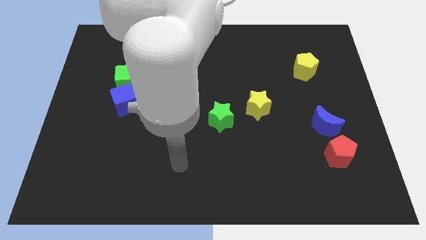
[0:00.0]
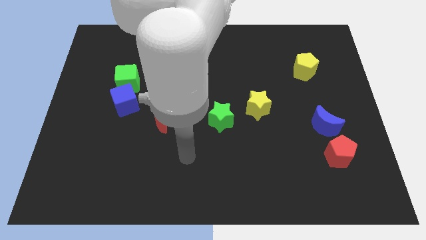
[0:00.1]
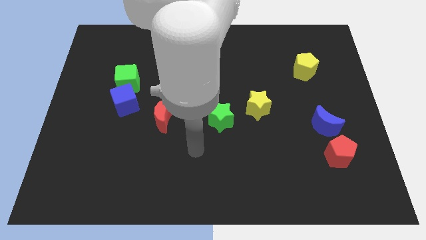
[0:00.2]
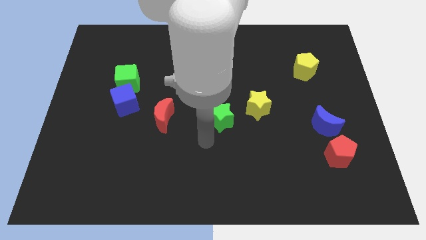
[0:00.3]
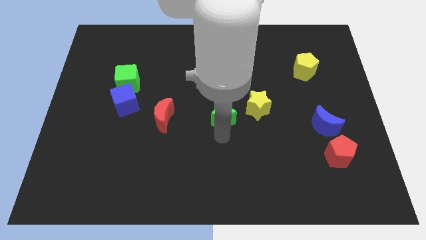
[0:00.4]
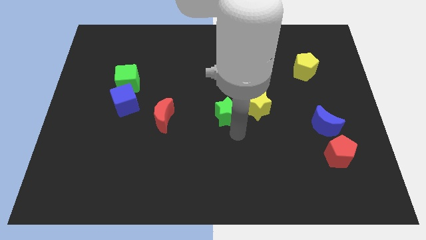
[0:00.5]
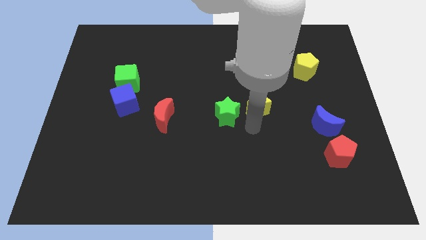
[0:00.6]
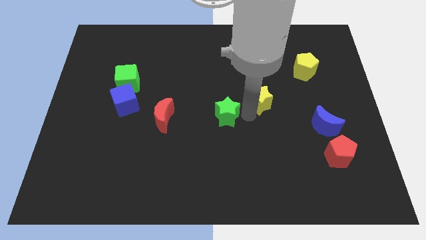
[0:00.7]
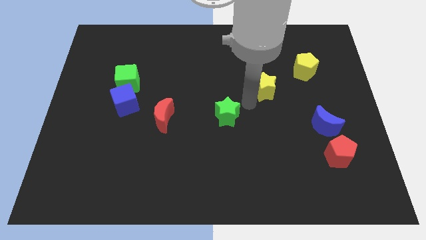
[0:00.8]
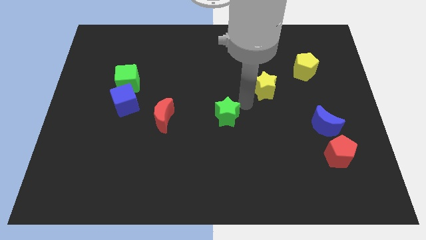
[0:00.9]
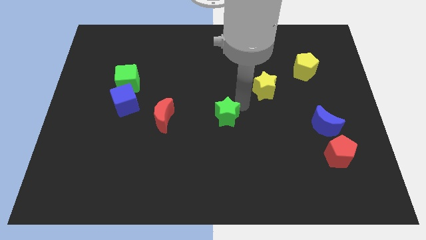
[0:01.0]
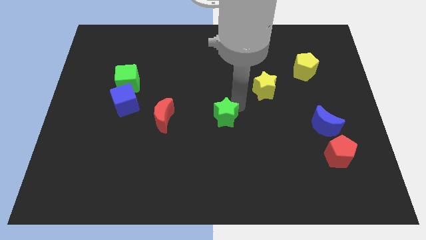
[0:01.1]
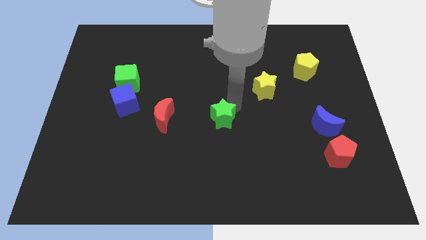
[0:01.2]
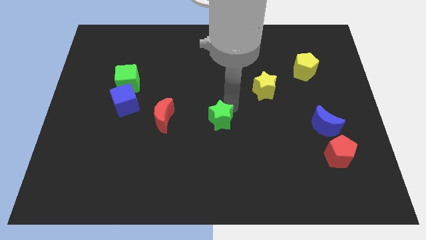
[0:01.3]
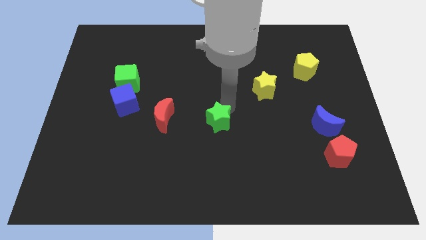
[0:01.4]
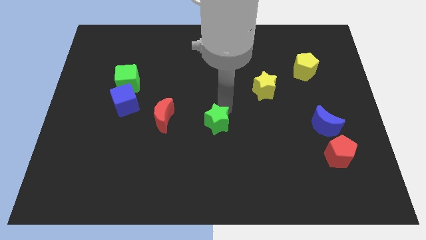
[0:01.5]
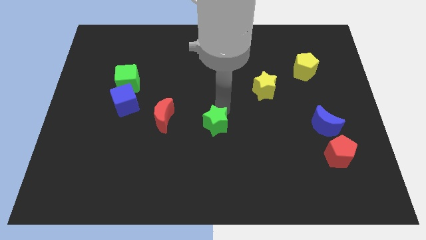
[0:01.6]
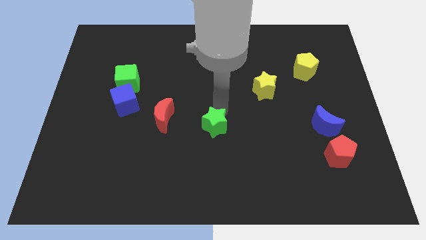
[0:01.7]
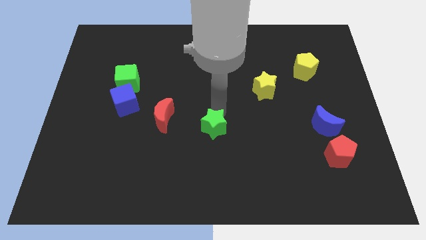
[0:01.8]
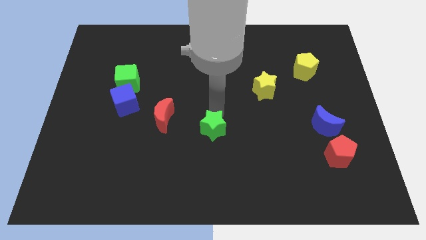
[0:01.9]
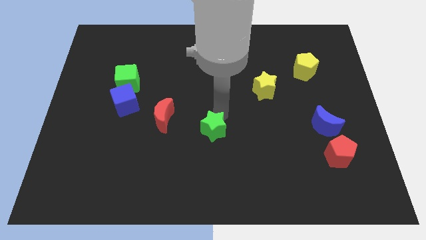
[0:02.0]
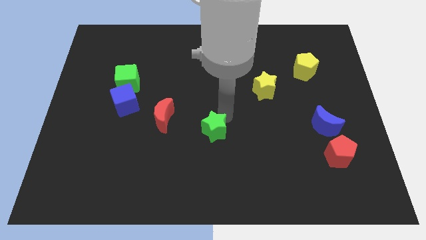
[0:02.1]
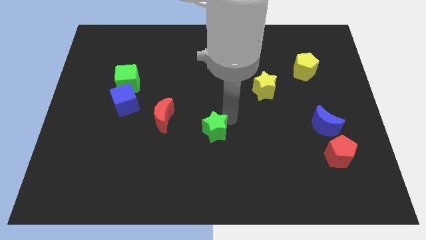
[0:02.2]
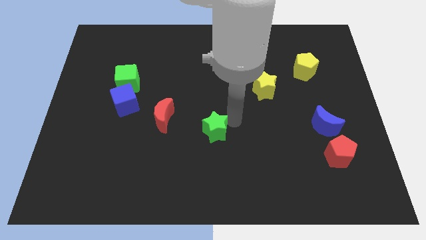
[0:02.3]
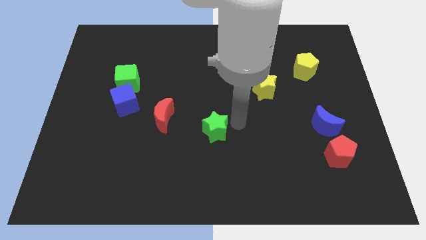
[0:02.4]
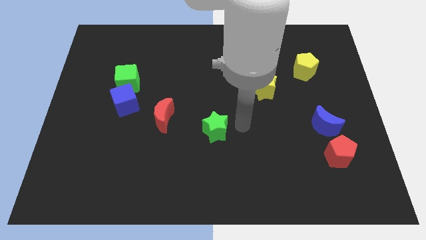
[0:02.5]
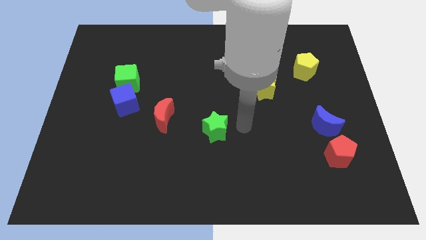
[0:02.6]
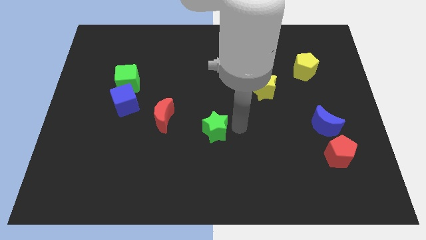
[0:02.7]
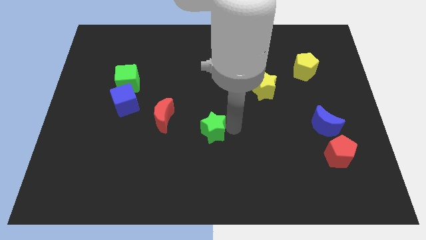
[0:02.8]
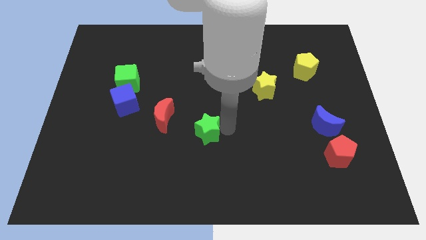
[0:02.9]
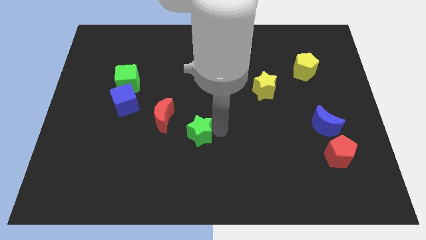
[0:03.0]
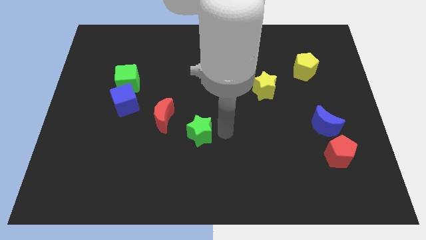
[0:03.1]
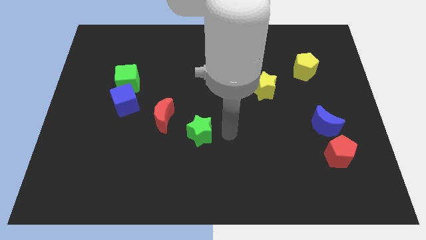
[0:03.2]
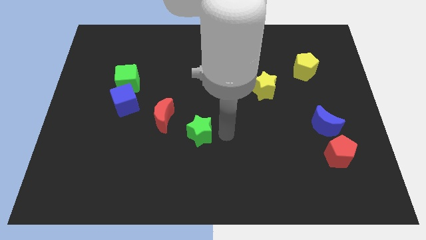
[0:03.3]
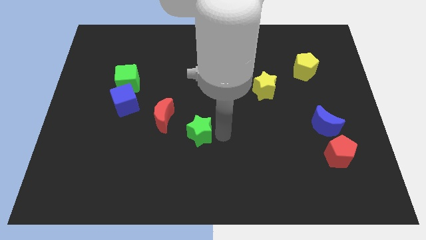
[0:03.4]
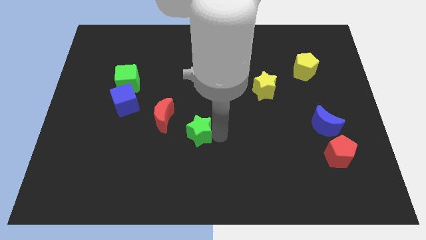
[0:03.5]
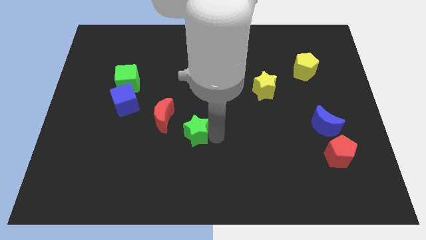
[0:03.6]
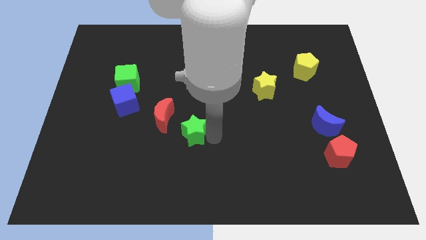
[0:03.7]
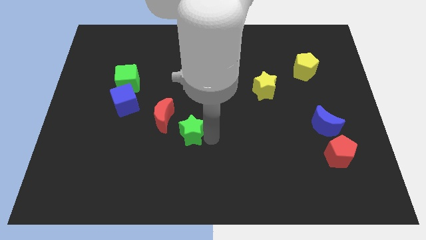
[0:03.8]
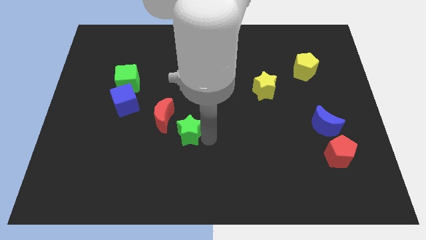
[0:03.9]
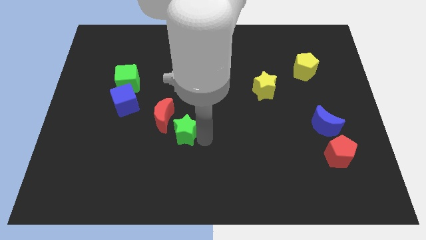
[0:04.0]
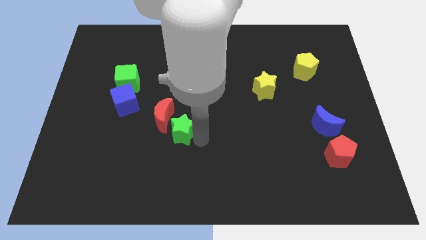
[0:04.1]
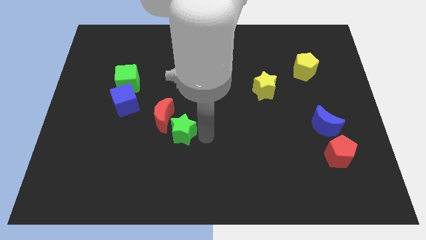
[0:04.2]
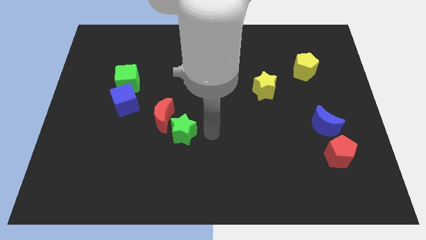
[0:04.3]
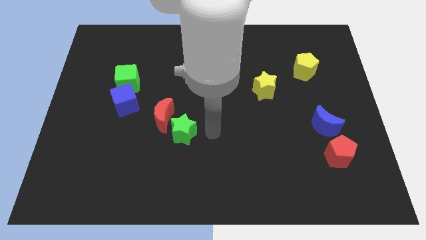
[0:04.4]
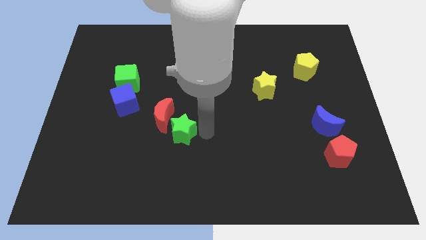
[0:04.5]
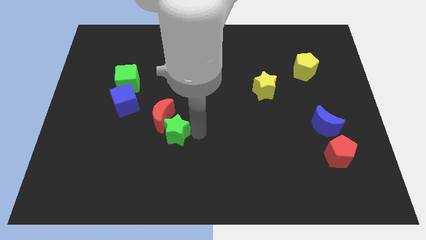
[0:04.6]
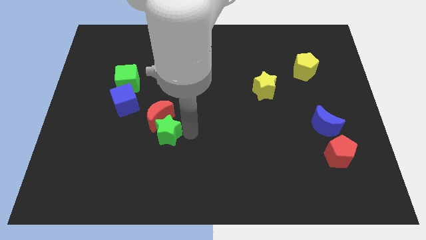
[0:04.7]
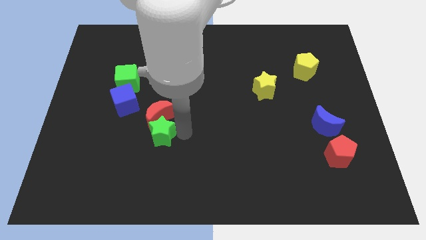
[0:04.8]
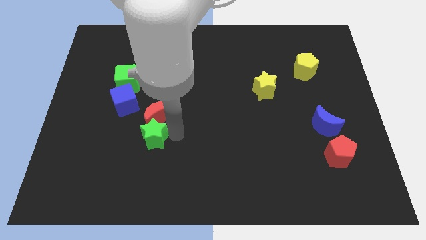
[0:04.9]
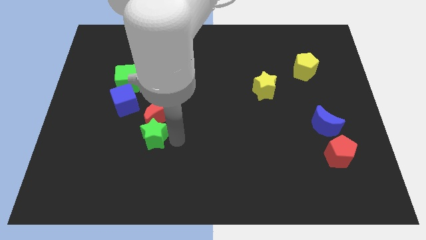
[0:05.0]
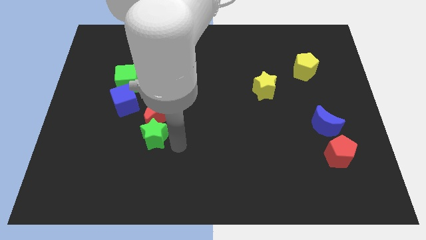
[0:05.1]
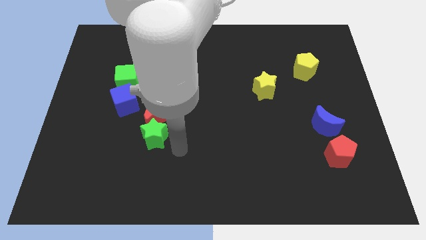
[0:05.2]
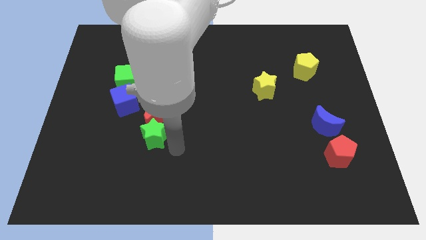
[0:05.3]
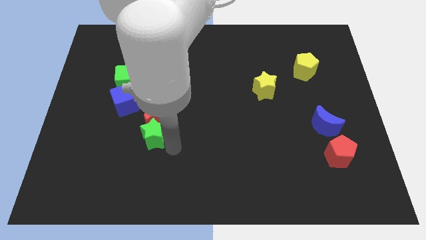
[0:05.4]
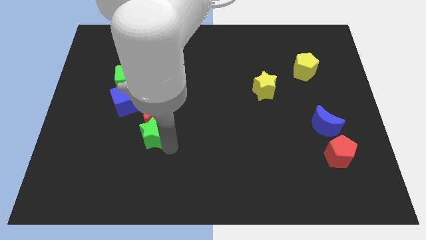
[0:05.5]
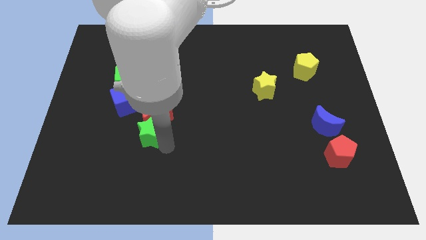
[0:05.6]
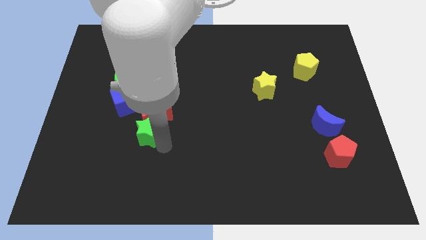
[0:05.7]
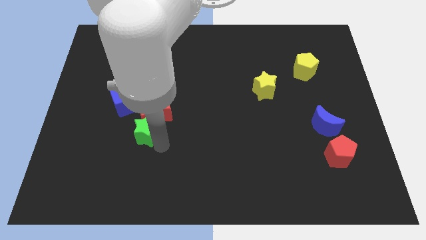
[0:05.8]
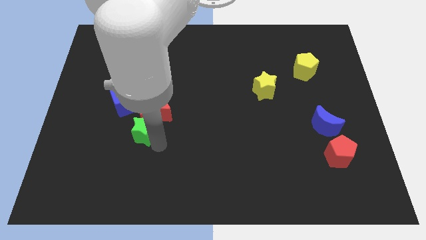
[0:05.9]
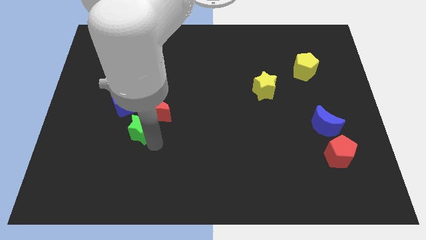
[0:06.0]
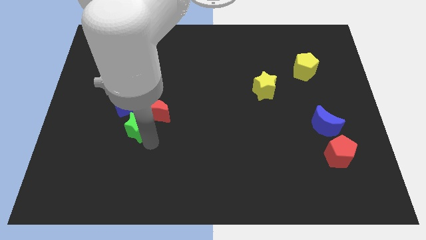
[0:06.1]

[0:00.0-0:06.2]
push the green star to the left of the red moon

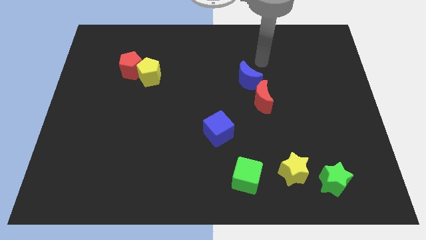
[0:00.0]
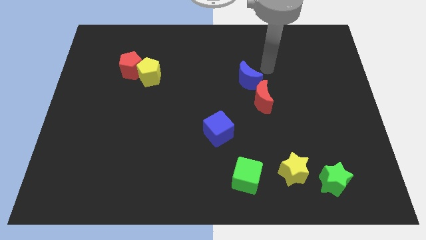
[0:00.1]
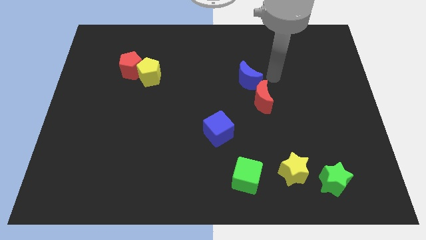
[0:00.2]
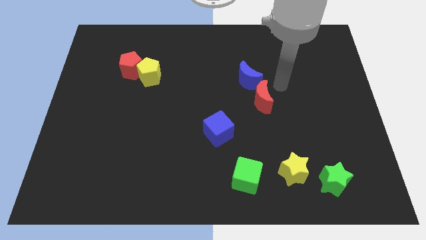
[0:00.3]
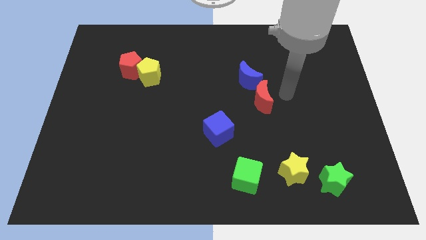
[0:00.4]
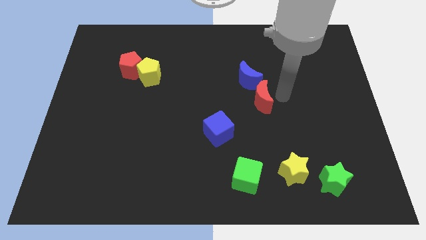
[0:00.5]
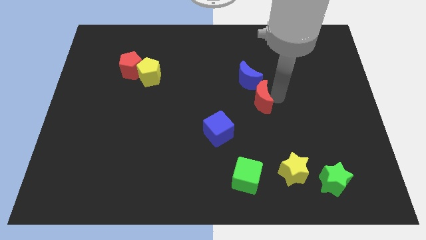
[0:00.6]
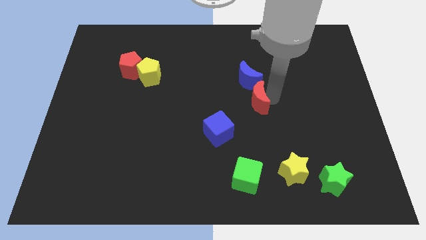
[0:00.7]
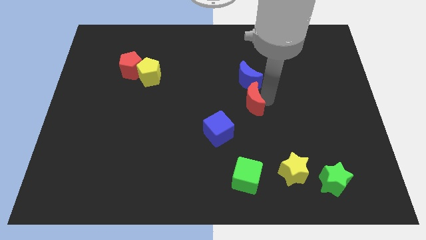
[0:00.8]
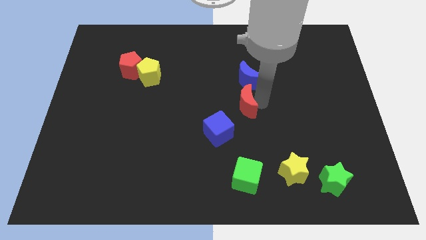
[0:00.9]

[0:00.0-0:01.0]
move the red moon to the bottom left side of the blue moon
